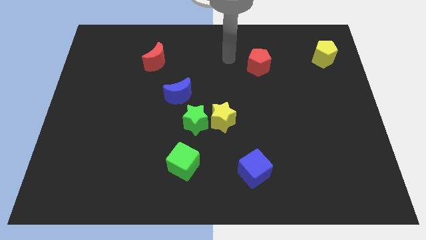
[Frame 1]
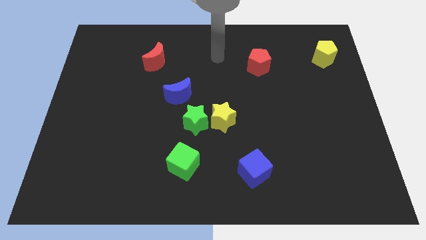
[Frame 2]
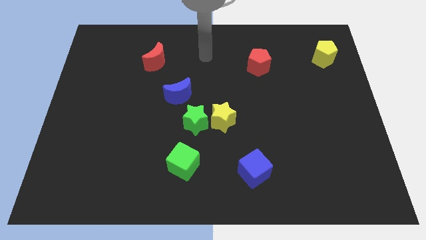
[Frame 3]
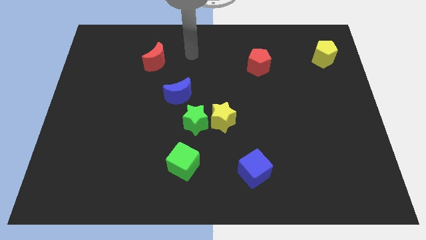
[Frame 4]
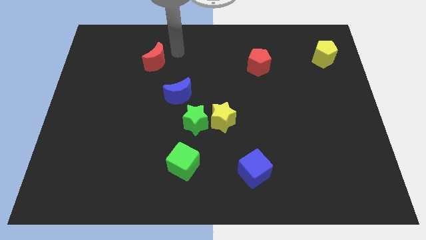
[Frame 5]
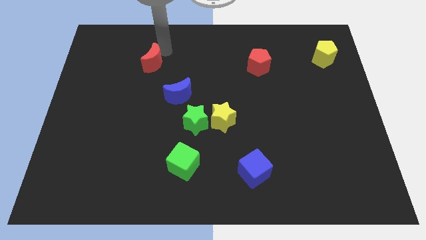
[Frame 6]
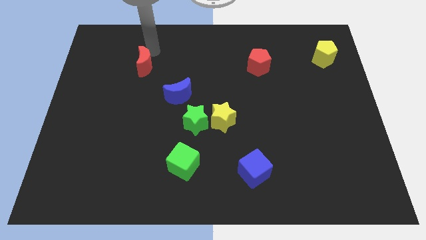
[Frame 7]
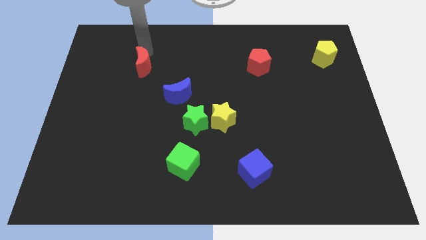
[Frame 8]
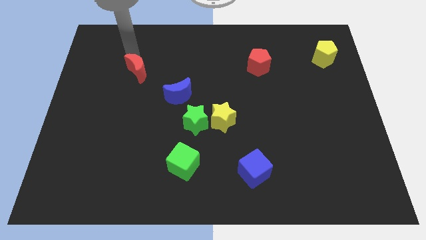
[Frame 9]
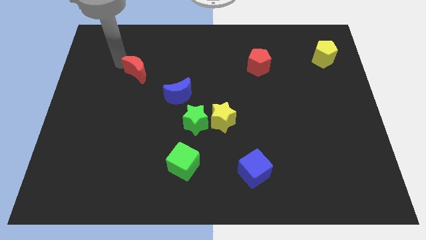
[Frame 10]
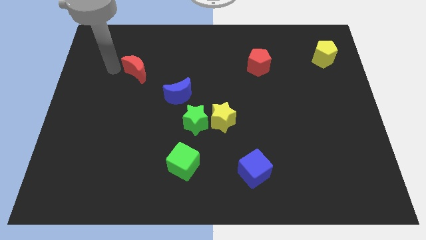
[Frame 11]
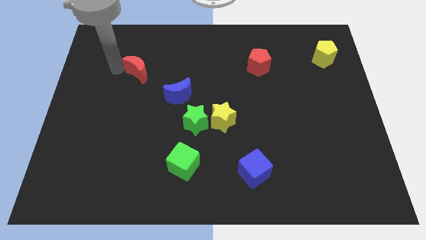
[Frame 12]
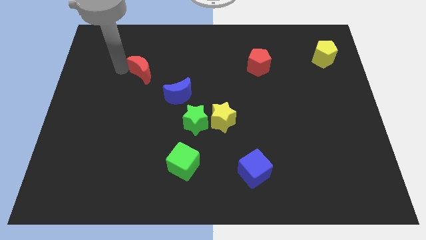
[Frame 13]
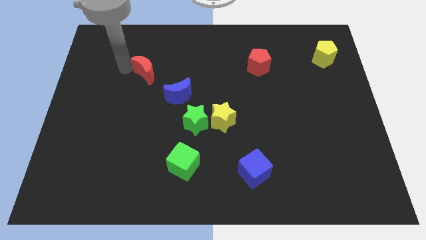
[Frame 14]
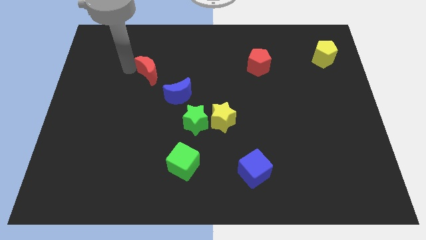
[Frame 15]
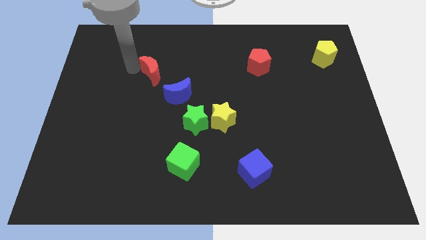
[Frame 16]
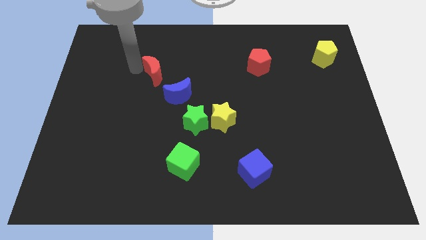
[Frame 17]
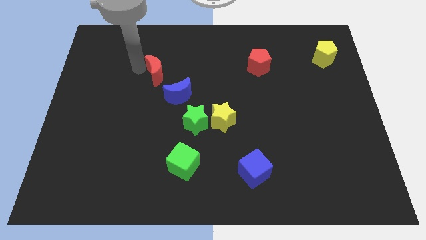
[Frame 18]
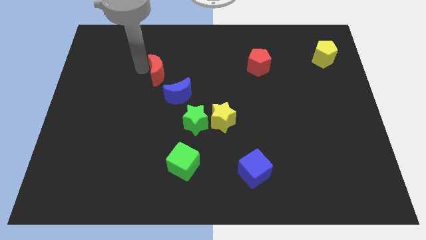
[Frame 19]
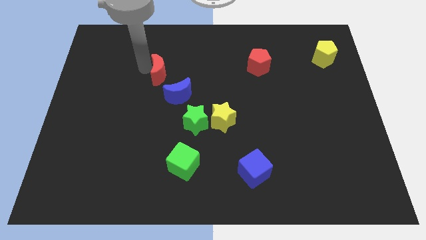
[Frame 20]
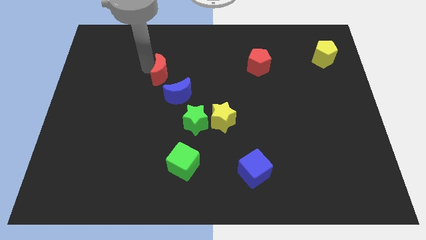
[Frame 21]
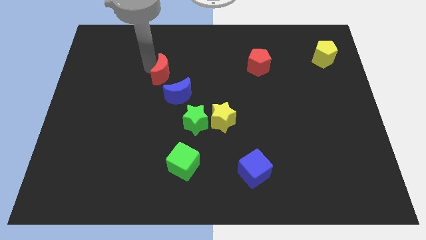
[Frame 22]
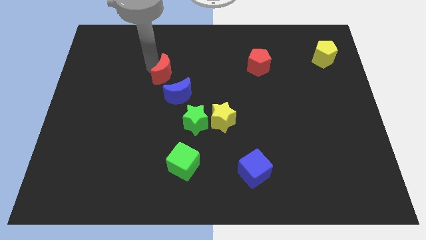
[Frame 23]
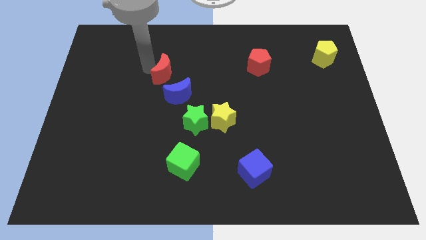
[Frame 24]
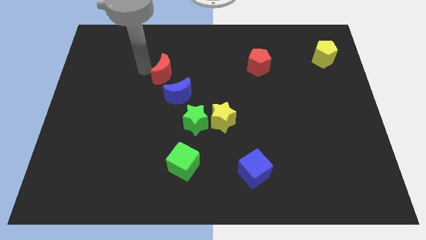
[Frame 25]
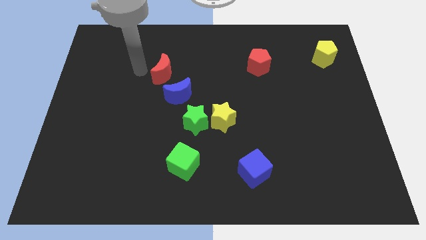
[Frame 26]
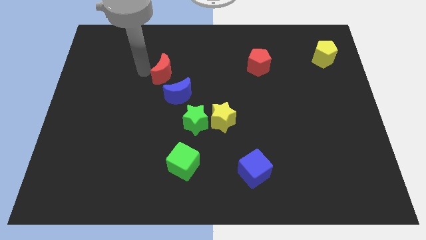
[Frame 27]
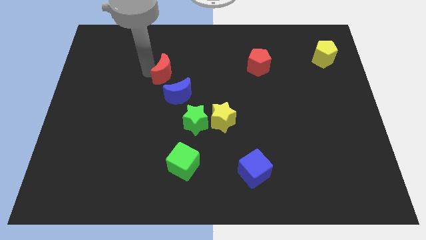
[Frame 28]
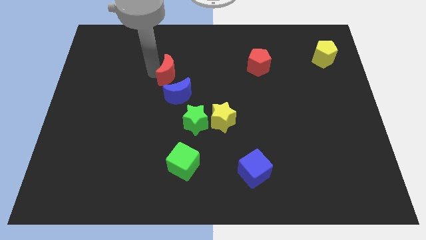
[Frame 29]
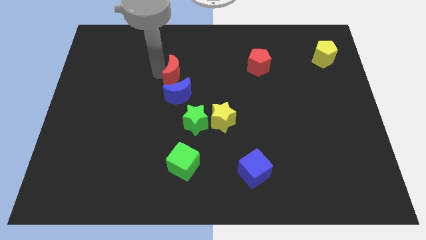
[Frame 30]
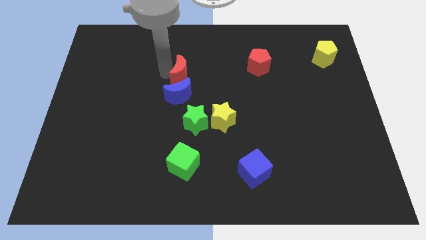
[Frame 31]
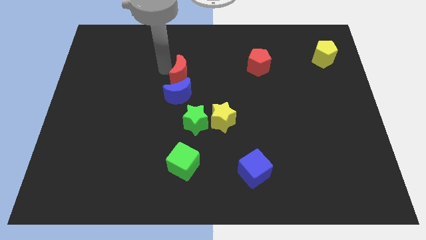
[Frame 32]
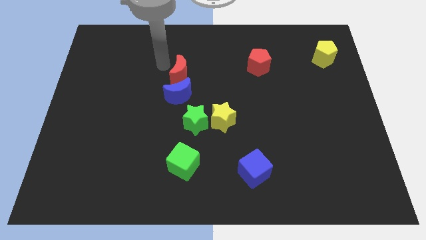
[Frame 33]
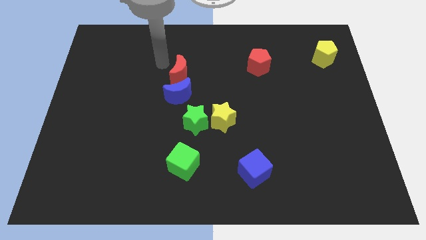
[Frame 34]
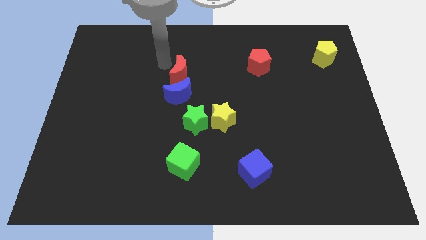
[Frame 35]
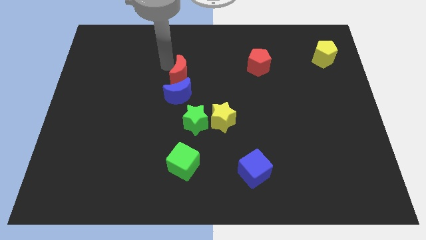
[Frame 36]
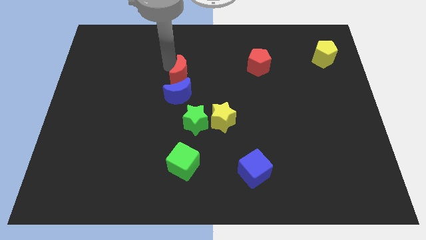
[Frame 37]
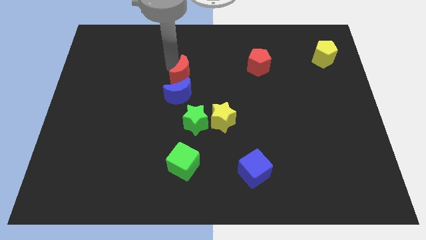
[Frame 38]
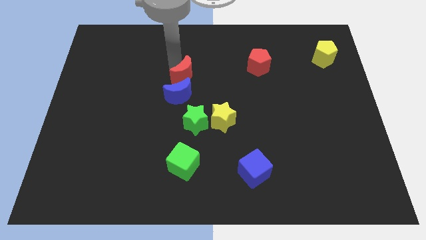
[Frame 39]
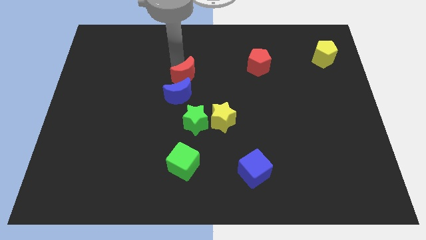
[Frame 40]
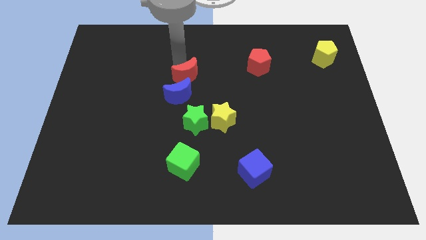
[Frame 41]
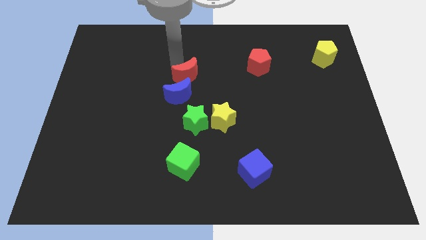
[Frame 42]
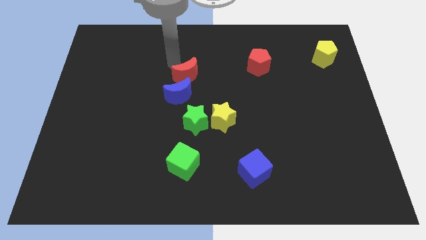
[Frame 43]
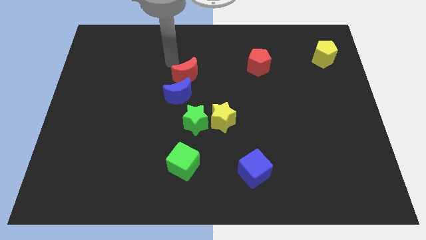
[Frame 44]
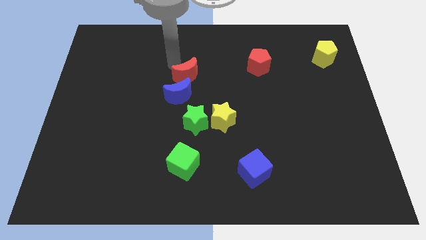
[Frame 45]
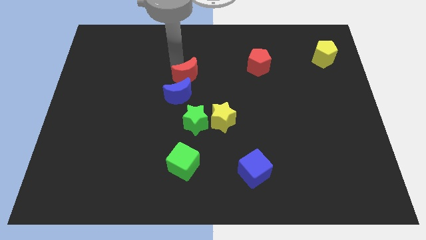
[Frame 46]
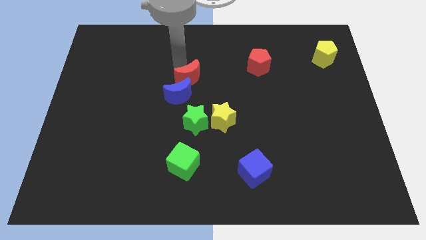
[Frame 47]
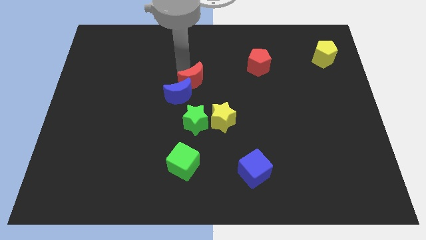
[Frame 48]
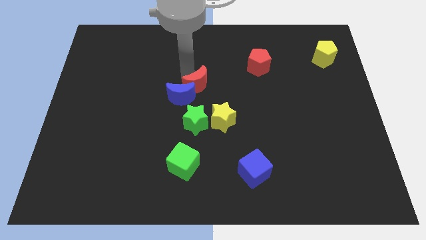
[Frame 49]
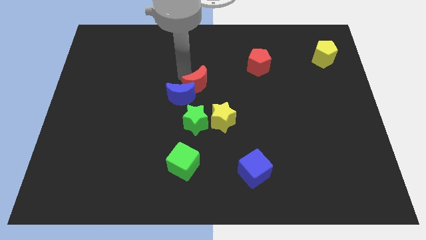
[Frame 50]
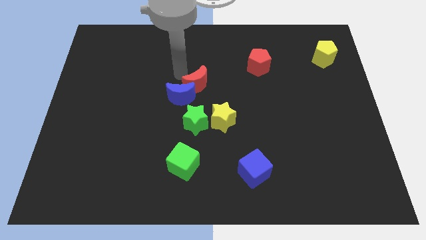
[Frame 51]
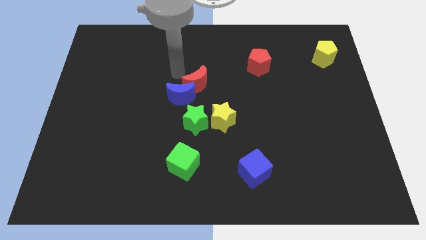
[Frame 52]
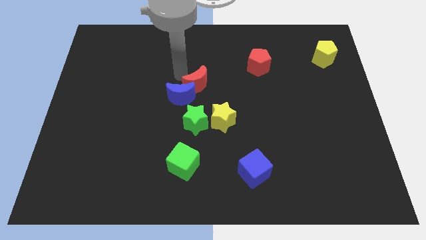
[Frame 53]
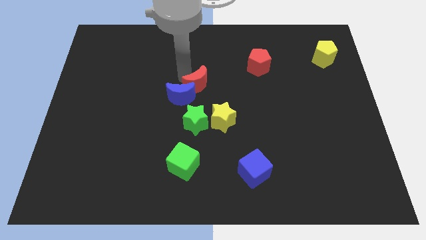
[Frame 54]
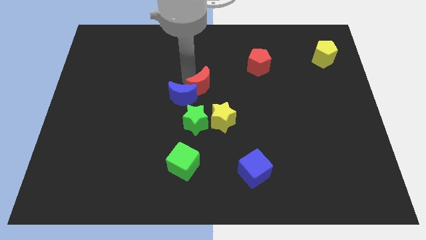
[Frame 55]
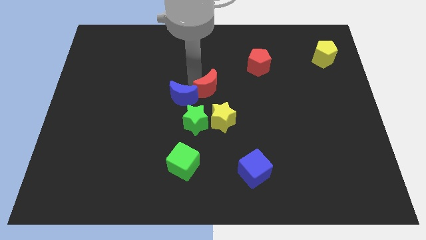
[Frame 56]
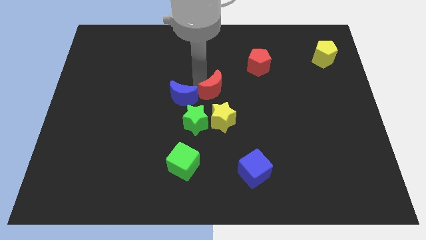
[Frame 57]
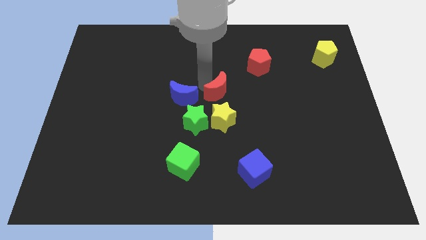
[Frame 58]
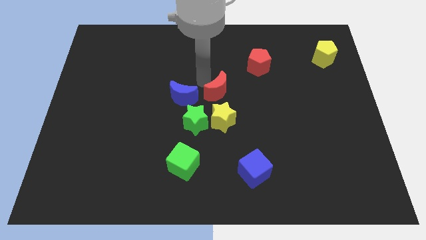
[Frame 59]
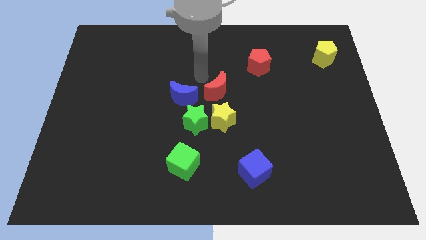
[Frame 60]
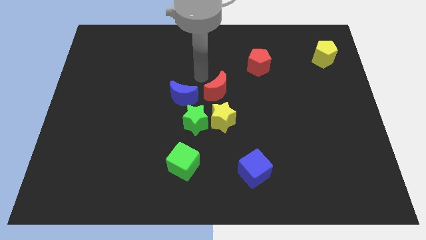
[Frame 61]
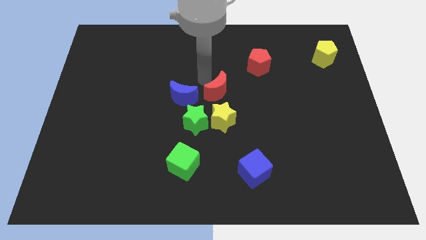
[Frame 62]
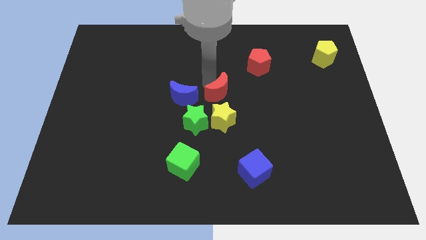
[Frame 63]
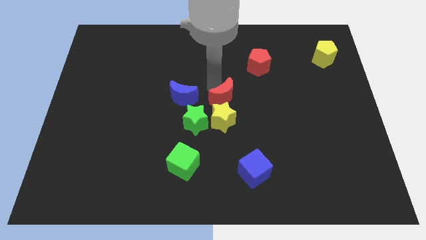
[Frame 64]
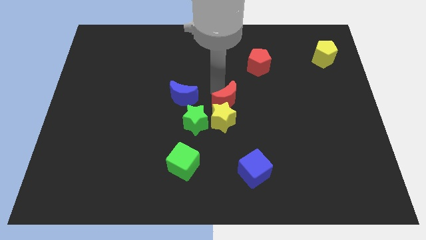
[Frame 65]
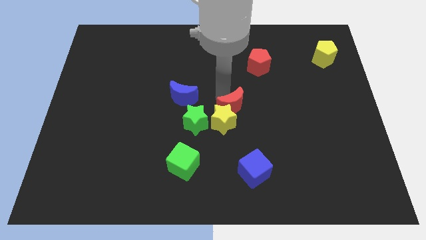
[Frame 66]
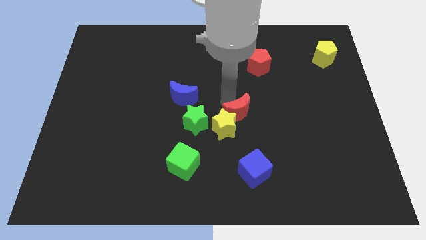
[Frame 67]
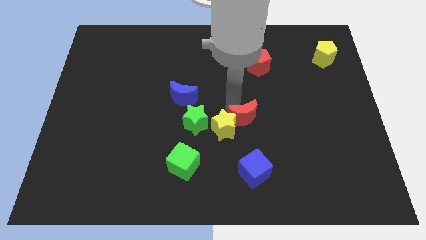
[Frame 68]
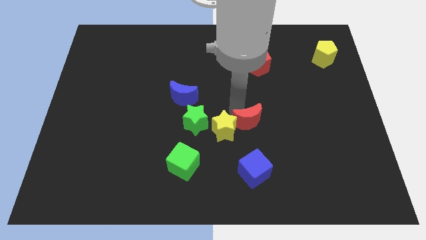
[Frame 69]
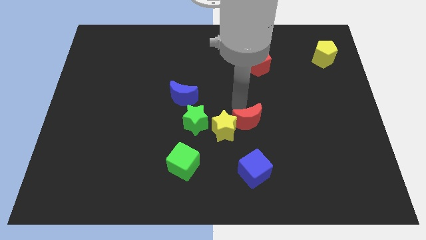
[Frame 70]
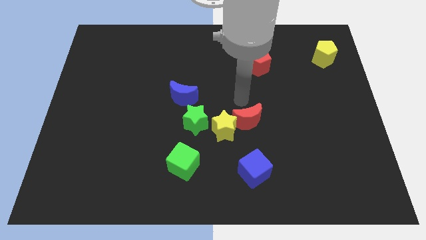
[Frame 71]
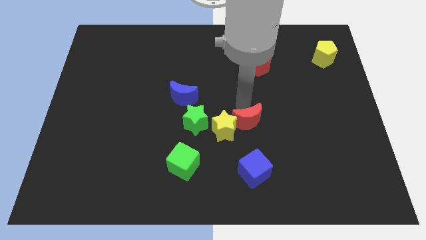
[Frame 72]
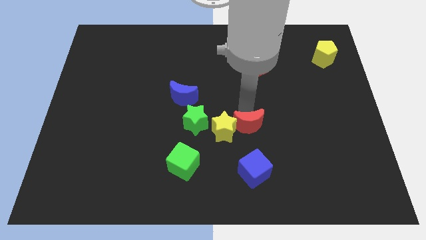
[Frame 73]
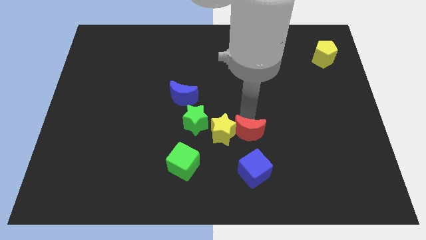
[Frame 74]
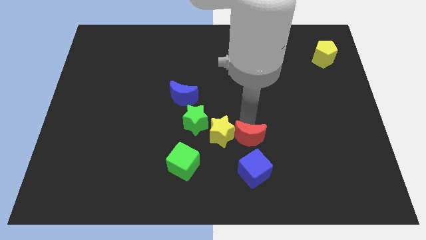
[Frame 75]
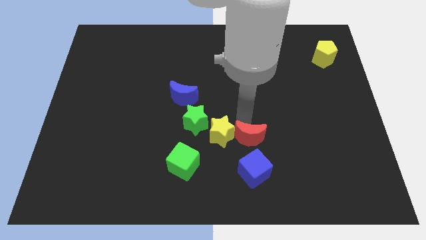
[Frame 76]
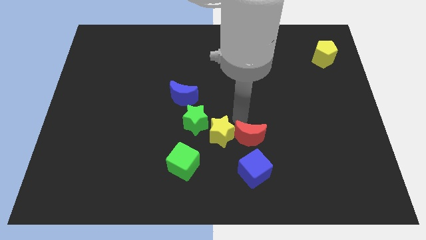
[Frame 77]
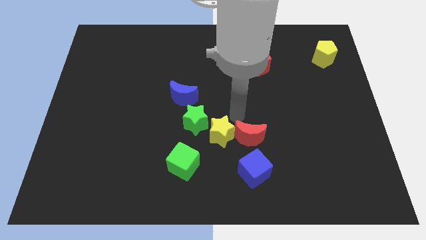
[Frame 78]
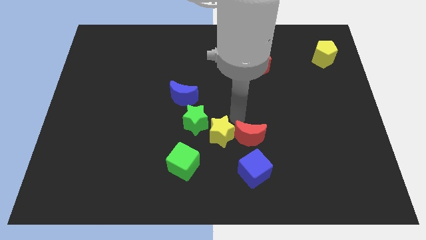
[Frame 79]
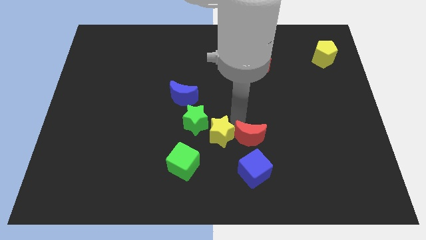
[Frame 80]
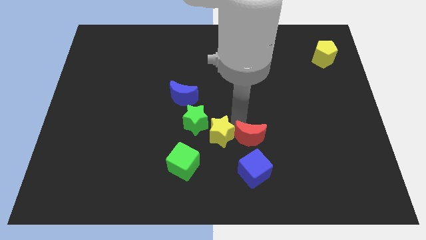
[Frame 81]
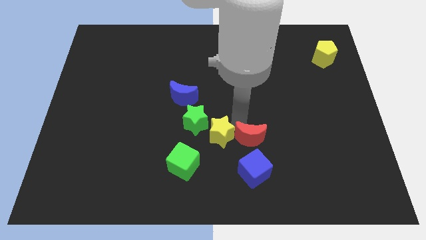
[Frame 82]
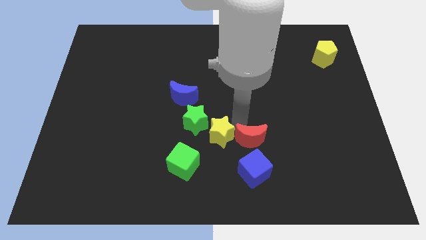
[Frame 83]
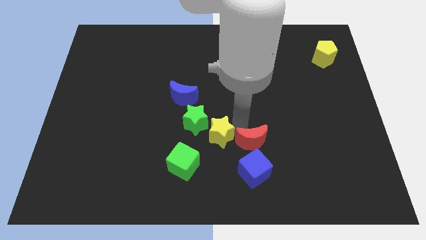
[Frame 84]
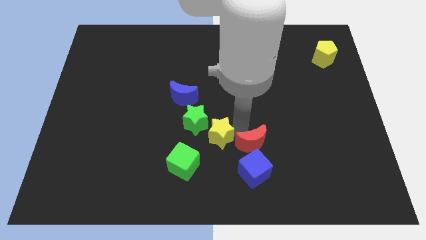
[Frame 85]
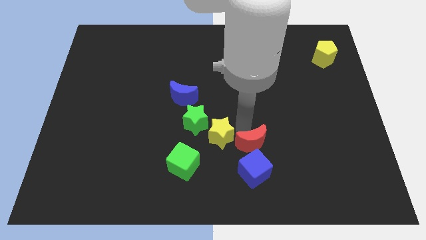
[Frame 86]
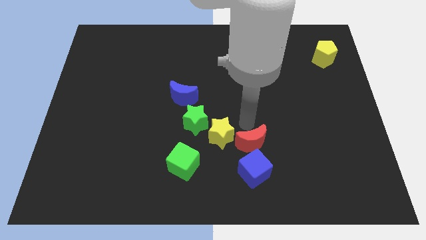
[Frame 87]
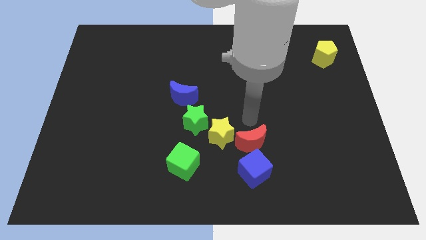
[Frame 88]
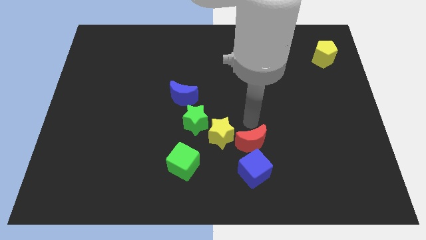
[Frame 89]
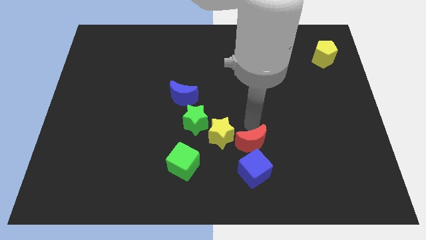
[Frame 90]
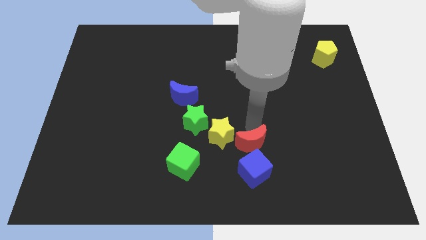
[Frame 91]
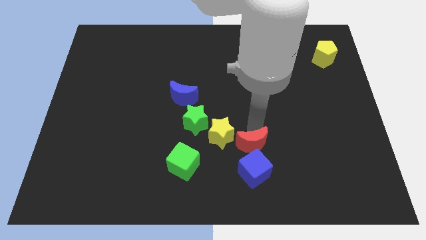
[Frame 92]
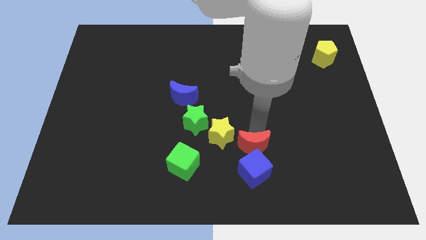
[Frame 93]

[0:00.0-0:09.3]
slide the red moon to the blue cube
